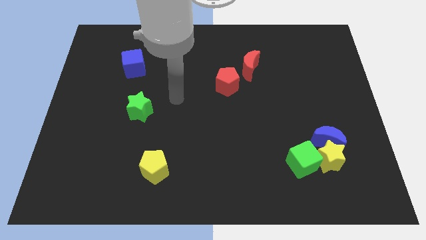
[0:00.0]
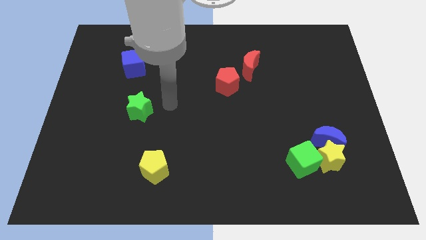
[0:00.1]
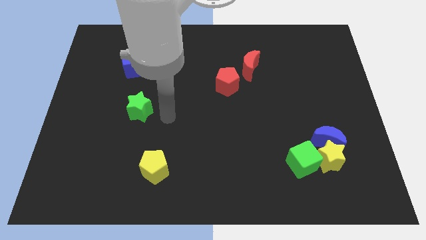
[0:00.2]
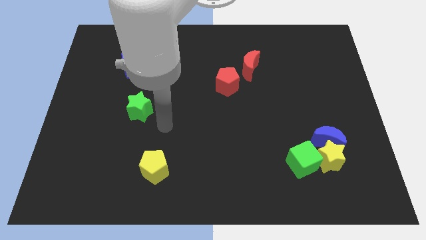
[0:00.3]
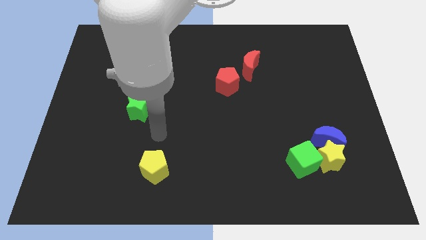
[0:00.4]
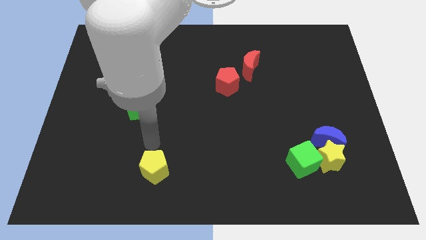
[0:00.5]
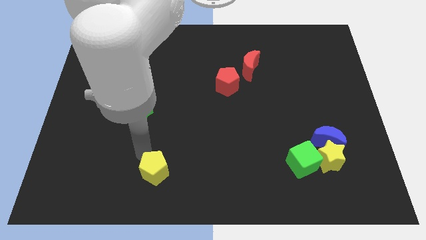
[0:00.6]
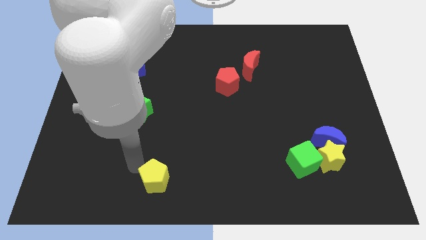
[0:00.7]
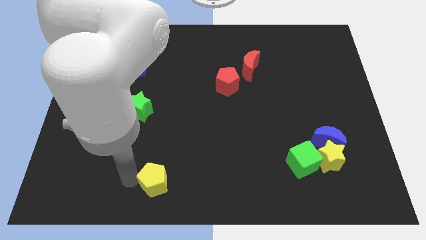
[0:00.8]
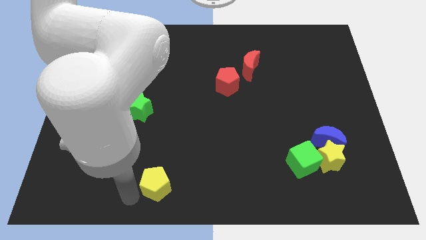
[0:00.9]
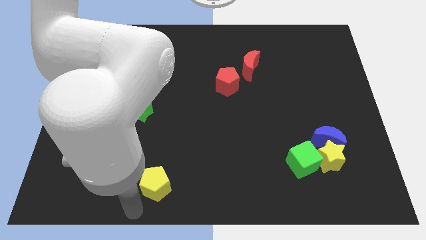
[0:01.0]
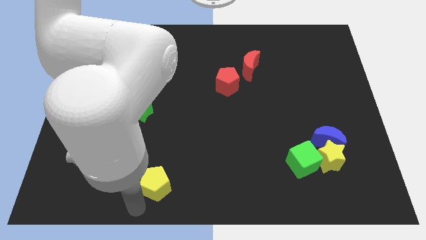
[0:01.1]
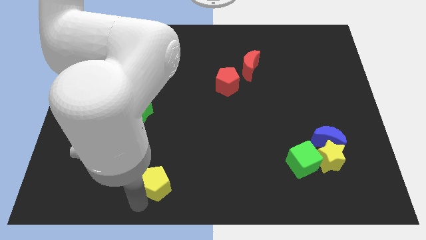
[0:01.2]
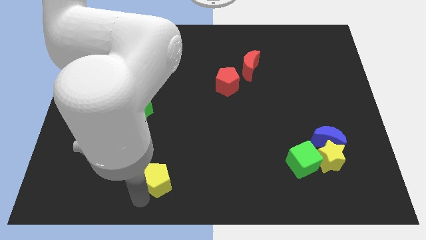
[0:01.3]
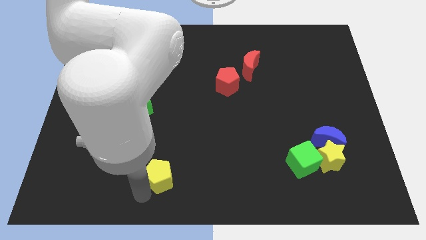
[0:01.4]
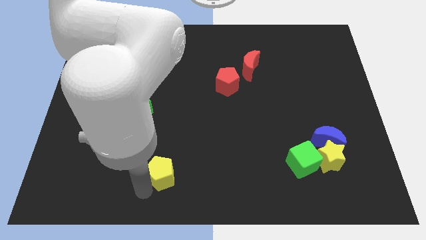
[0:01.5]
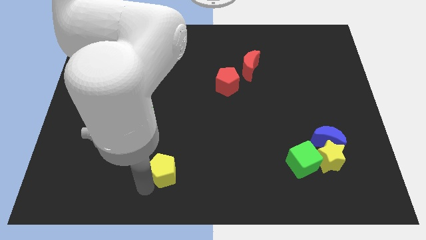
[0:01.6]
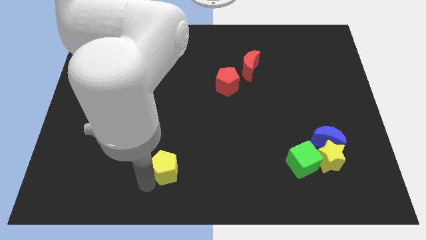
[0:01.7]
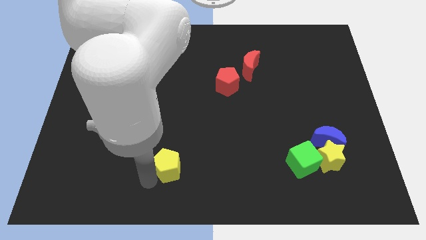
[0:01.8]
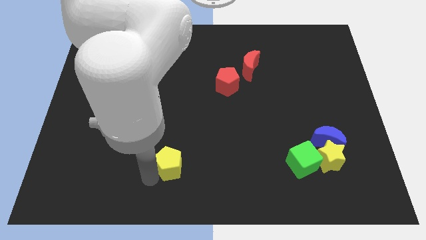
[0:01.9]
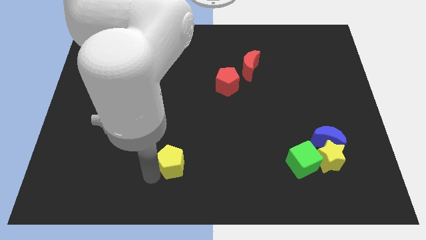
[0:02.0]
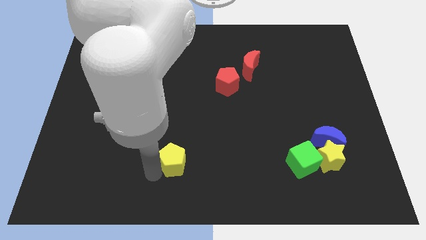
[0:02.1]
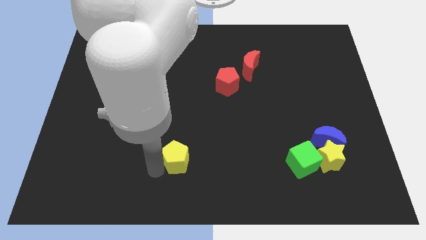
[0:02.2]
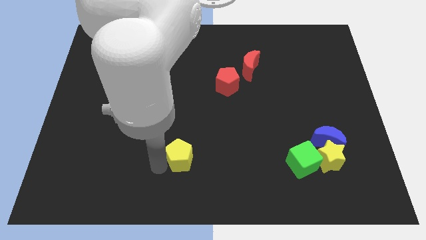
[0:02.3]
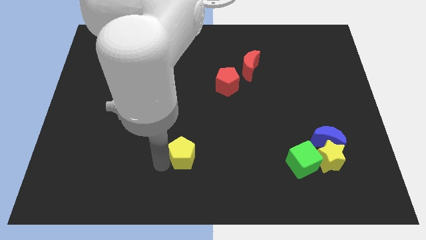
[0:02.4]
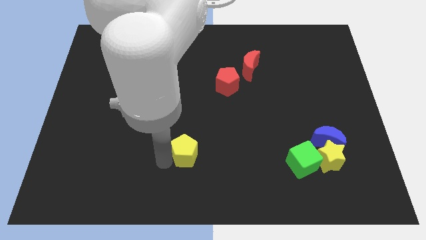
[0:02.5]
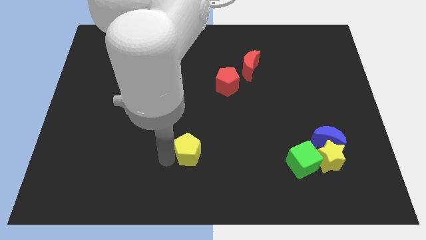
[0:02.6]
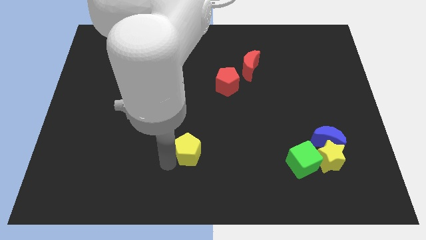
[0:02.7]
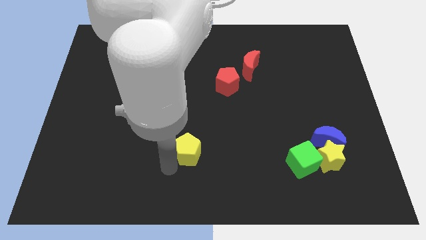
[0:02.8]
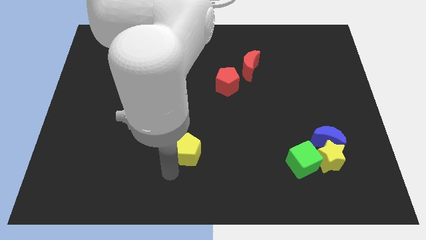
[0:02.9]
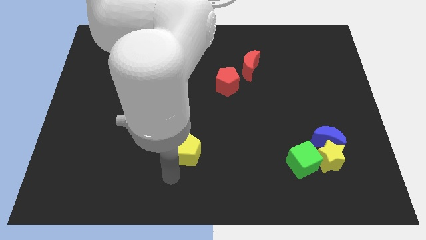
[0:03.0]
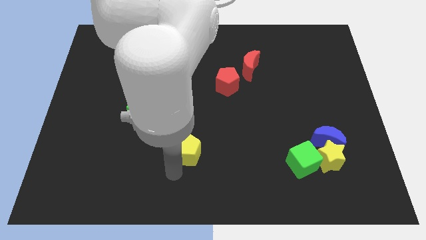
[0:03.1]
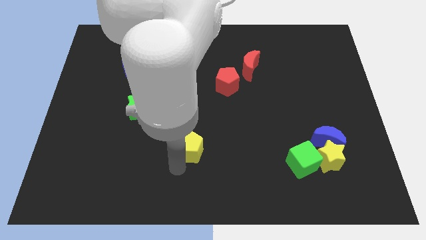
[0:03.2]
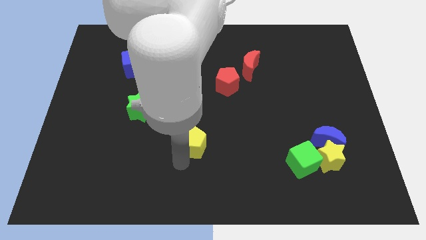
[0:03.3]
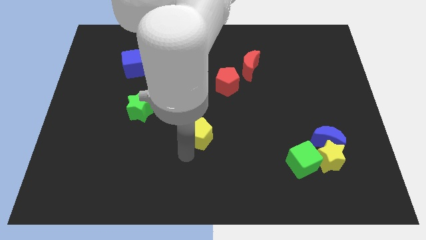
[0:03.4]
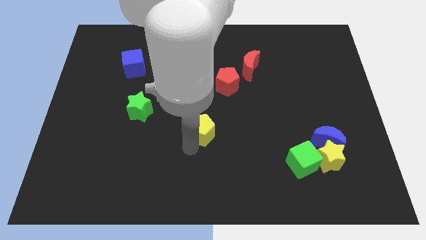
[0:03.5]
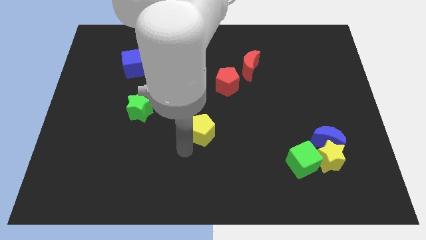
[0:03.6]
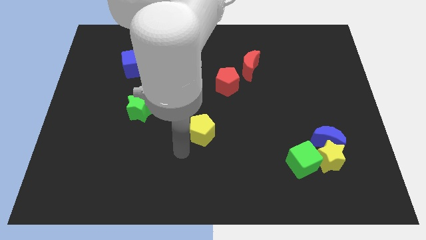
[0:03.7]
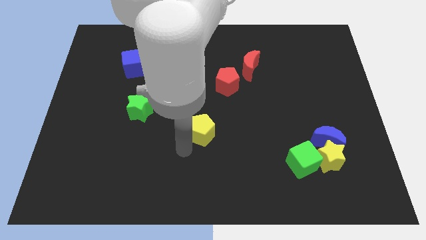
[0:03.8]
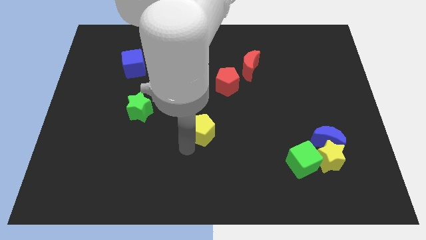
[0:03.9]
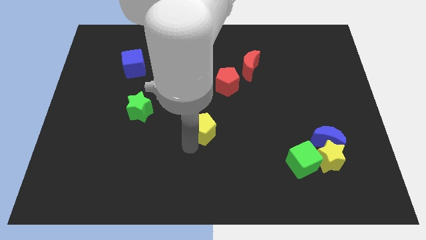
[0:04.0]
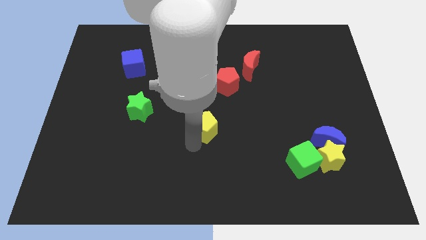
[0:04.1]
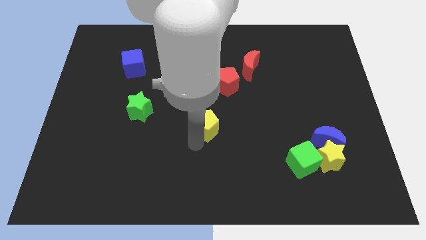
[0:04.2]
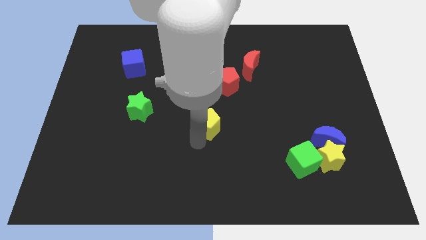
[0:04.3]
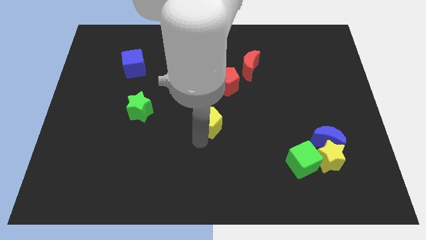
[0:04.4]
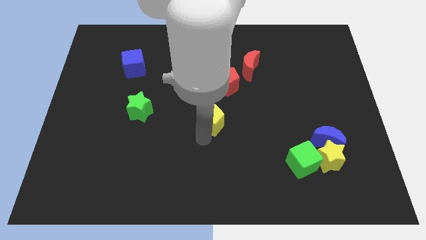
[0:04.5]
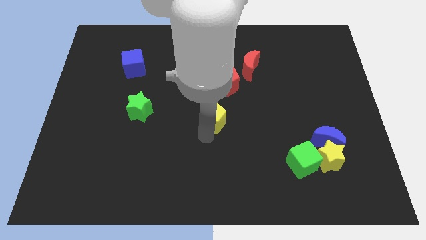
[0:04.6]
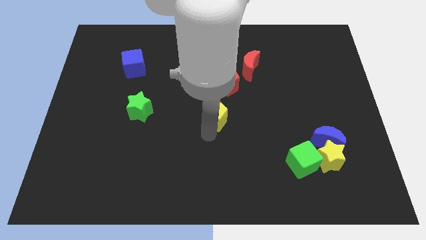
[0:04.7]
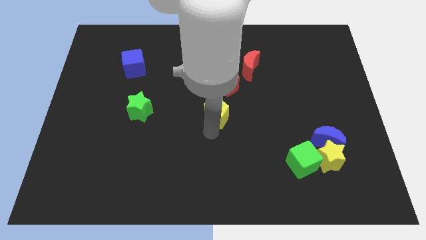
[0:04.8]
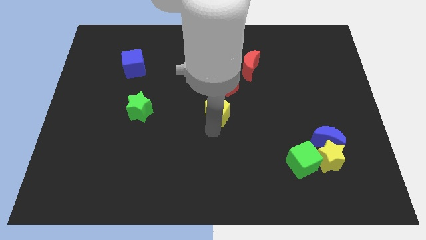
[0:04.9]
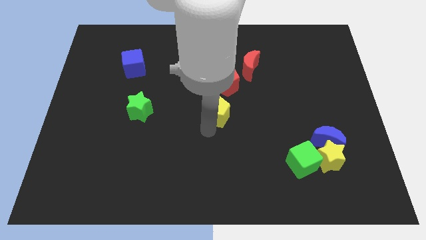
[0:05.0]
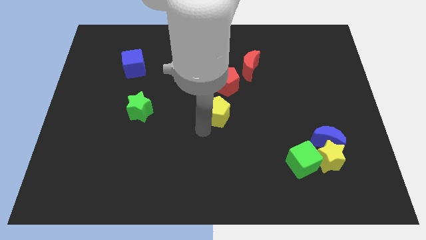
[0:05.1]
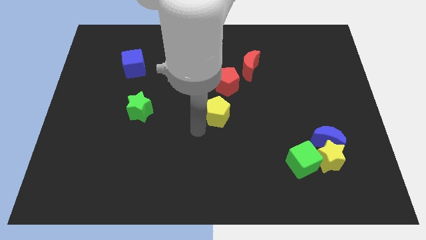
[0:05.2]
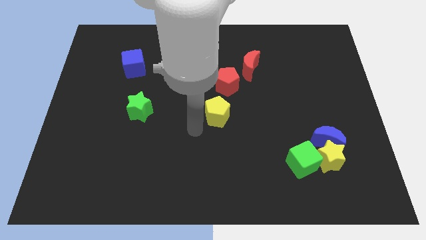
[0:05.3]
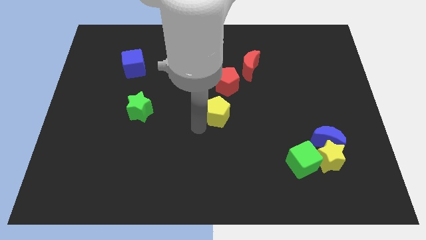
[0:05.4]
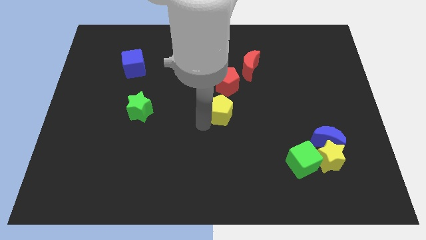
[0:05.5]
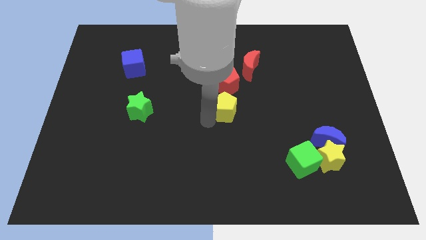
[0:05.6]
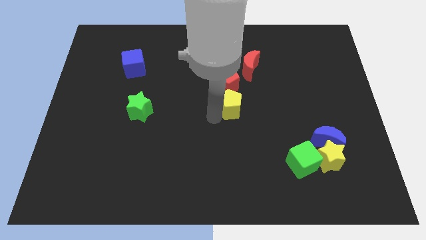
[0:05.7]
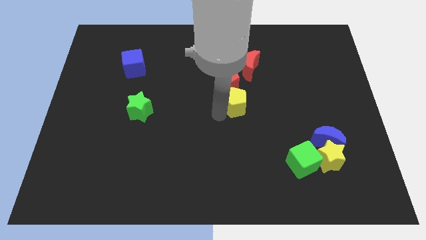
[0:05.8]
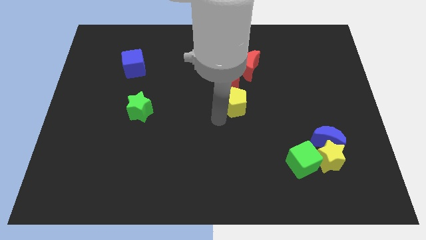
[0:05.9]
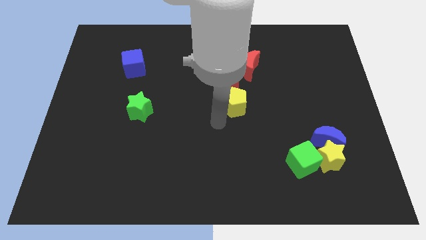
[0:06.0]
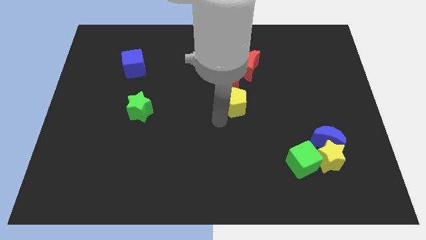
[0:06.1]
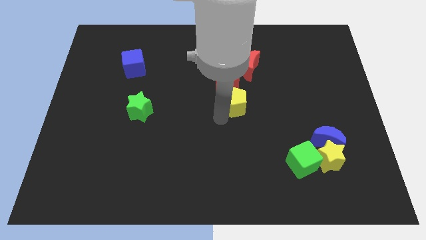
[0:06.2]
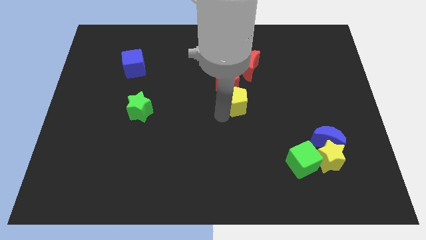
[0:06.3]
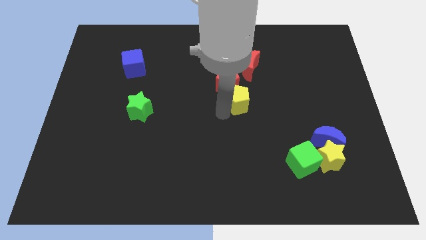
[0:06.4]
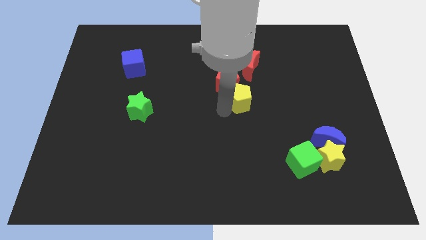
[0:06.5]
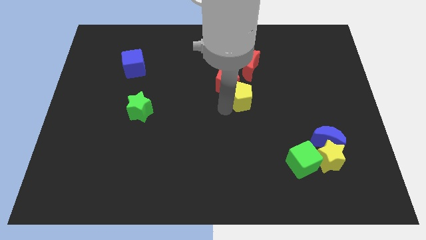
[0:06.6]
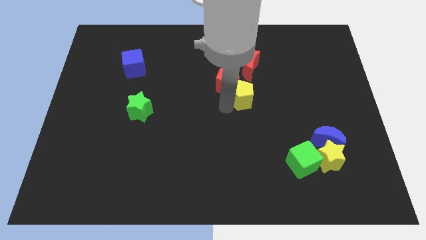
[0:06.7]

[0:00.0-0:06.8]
move the yellow pentagon right of the red pentagon

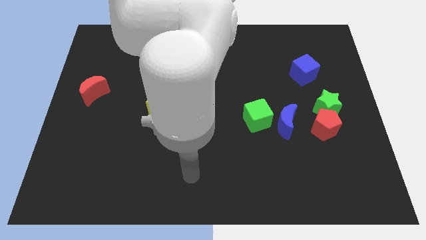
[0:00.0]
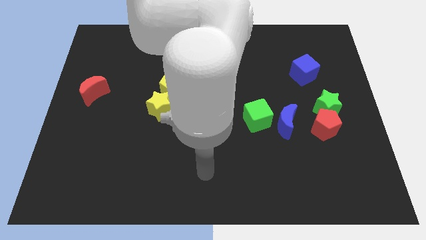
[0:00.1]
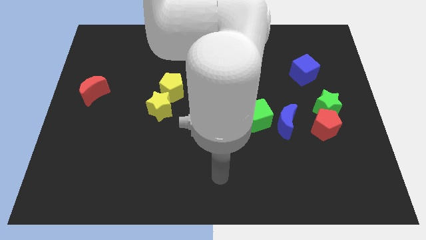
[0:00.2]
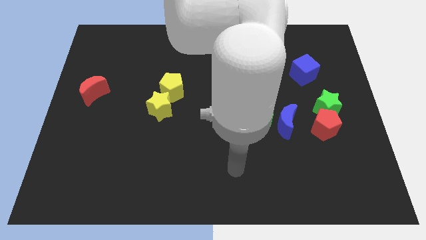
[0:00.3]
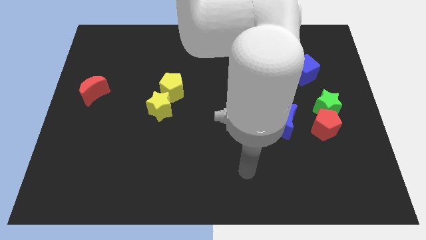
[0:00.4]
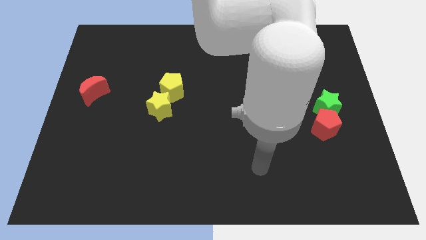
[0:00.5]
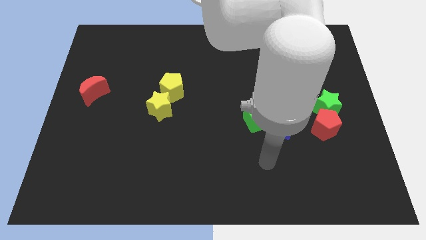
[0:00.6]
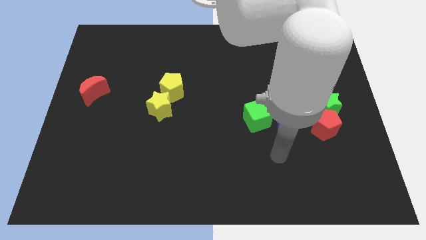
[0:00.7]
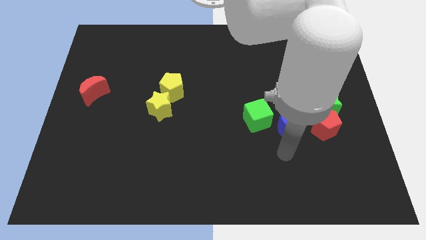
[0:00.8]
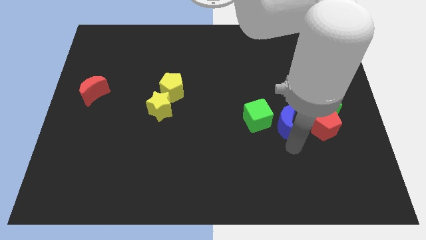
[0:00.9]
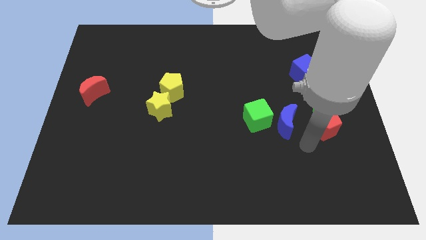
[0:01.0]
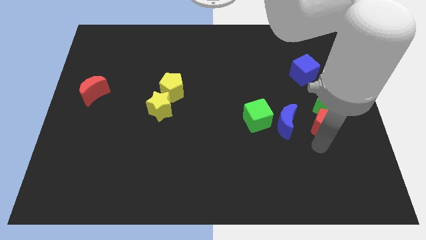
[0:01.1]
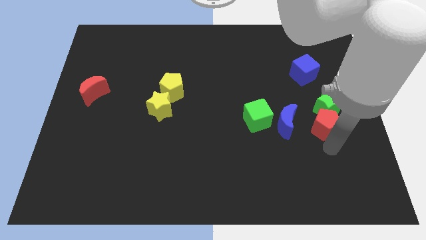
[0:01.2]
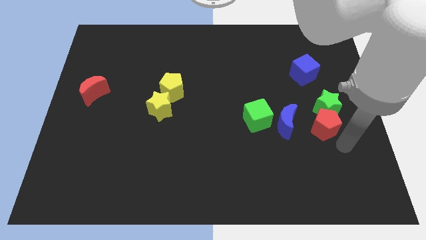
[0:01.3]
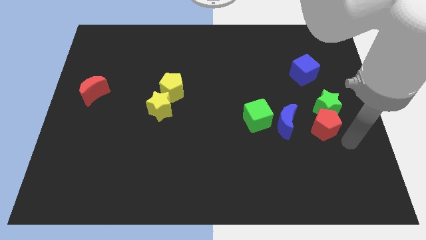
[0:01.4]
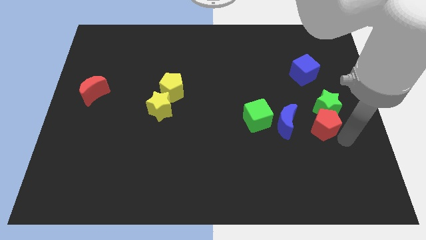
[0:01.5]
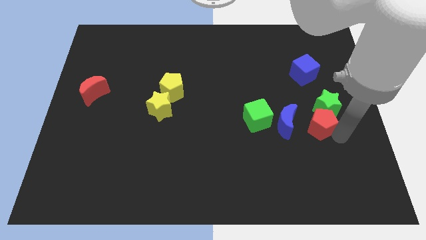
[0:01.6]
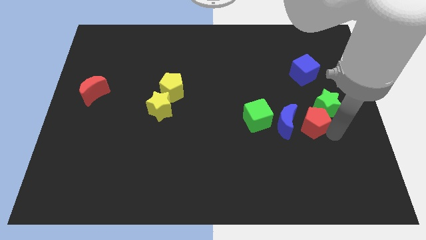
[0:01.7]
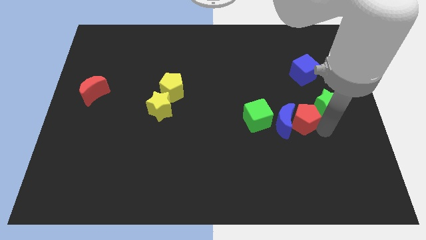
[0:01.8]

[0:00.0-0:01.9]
put the red pentagon just left of the green star
